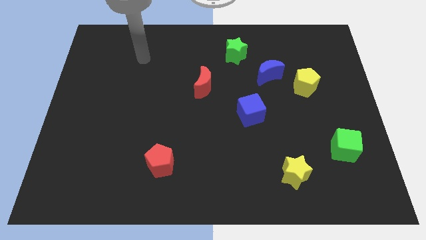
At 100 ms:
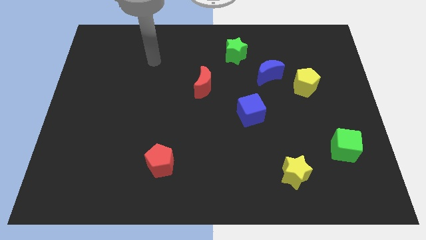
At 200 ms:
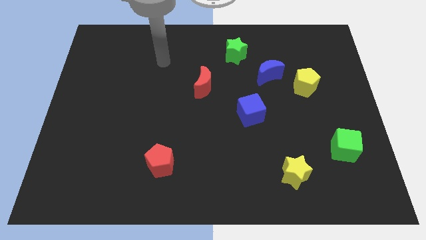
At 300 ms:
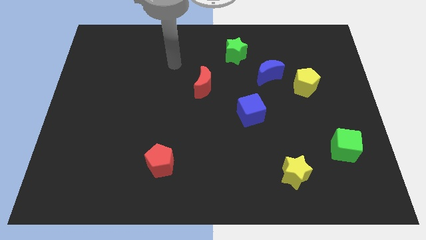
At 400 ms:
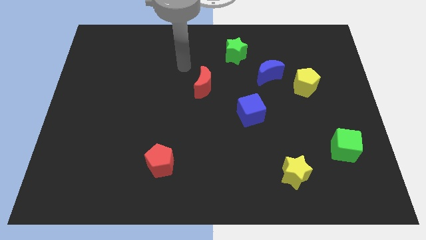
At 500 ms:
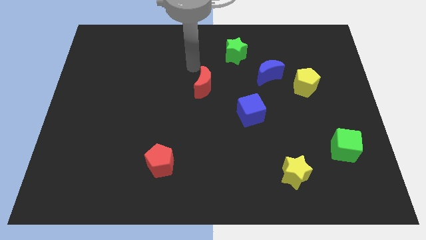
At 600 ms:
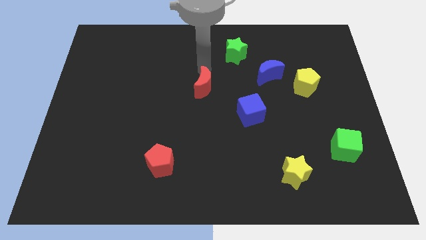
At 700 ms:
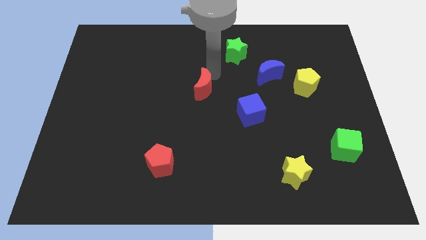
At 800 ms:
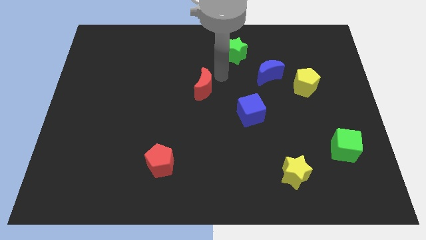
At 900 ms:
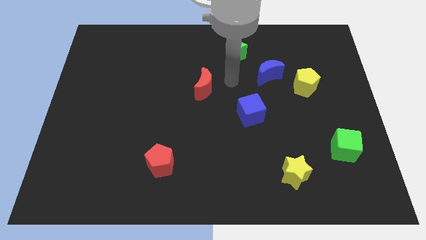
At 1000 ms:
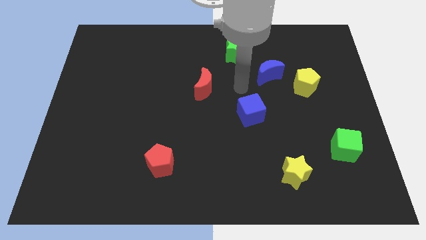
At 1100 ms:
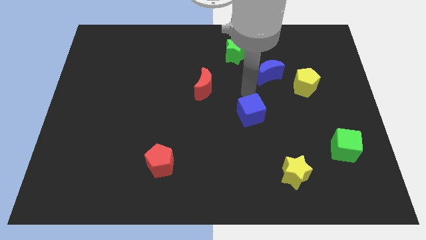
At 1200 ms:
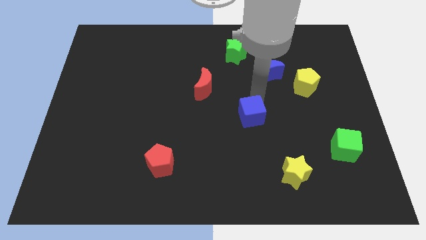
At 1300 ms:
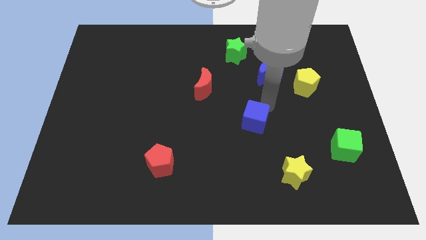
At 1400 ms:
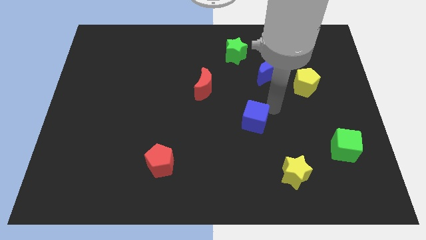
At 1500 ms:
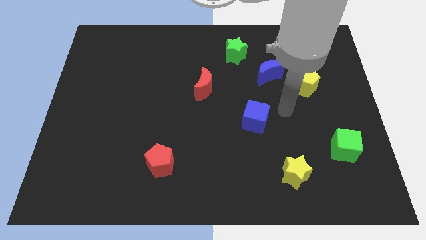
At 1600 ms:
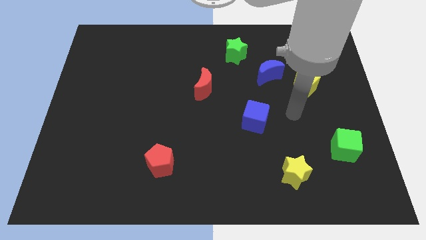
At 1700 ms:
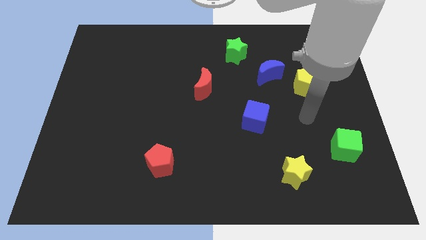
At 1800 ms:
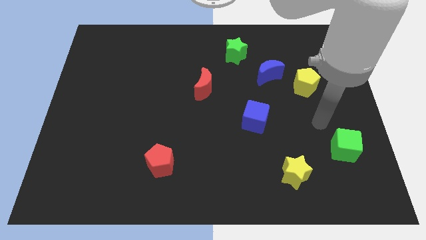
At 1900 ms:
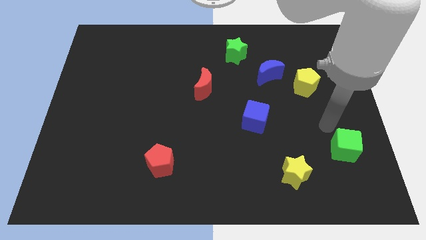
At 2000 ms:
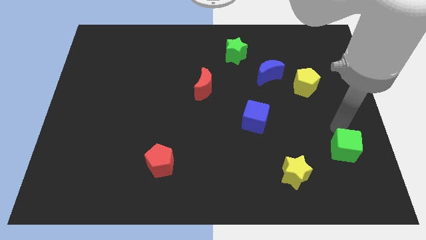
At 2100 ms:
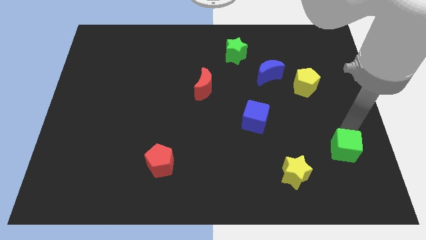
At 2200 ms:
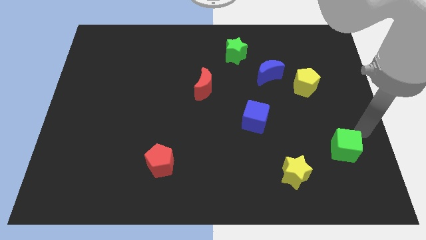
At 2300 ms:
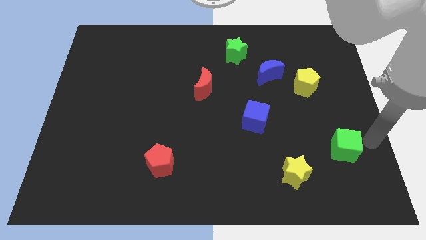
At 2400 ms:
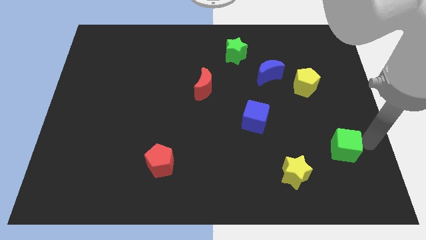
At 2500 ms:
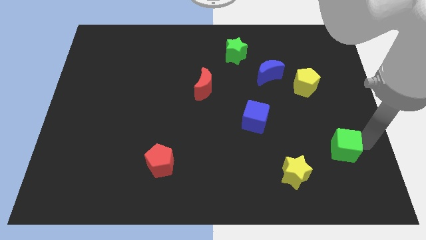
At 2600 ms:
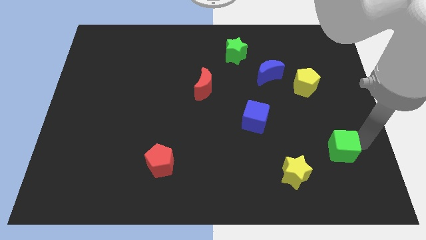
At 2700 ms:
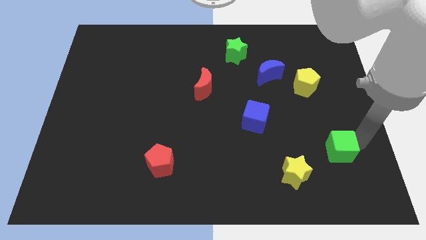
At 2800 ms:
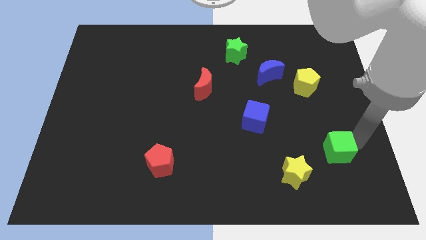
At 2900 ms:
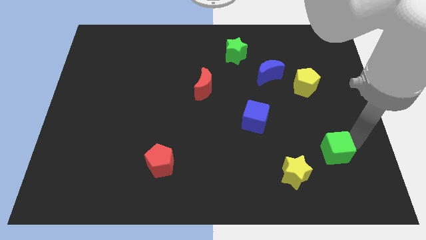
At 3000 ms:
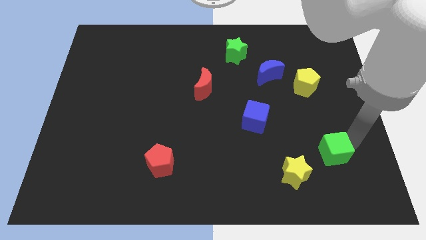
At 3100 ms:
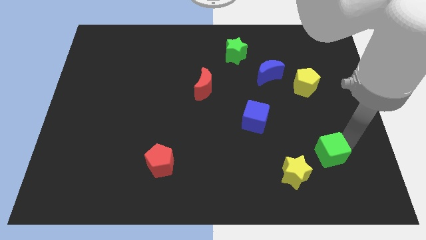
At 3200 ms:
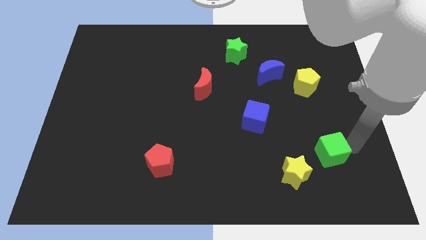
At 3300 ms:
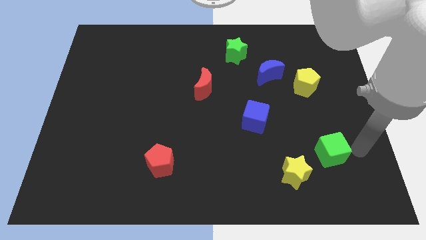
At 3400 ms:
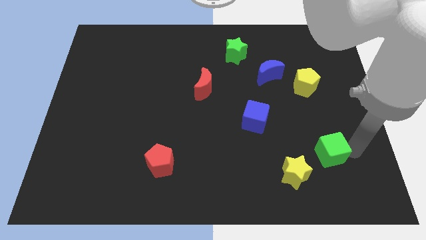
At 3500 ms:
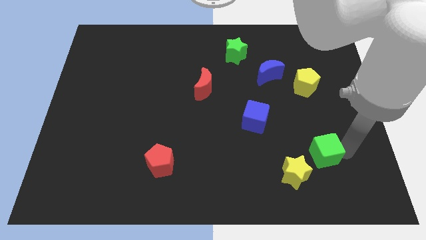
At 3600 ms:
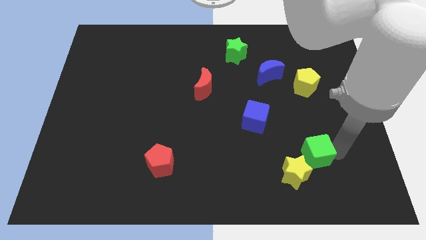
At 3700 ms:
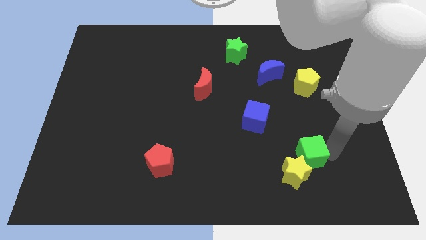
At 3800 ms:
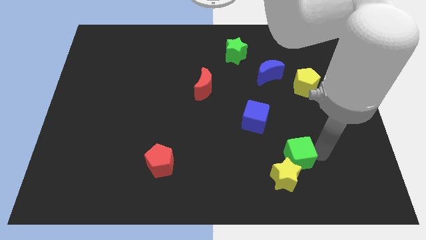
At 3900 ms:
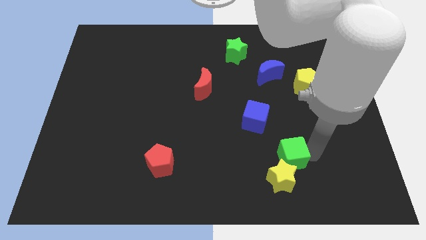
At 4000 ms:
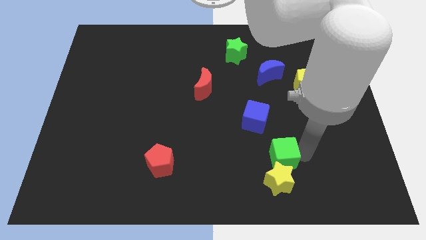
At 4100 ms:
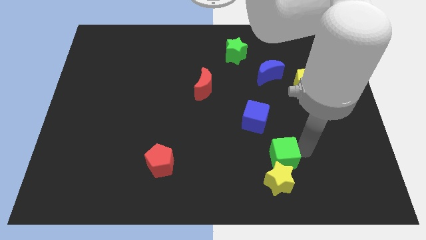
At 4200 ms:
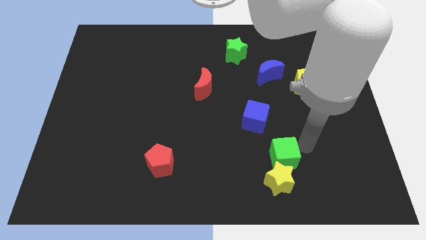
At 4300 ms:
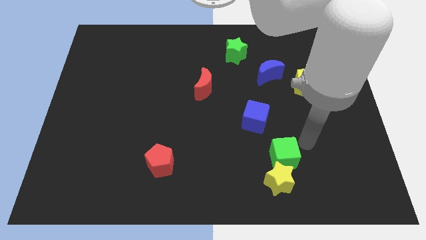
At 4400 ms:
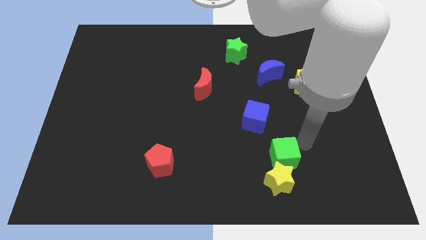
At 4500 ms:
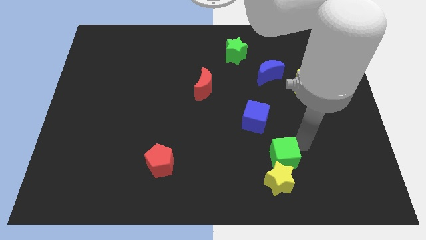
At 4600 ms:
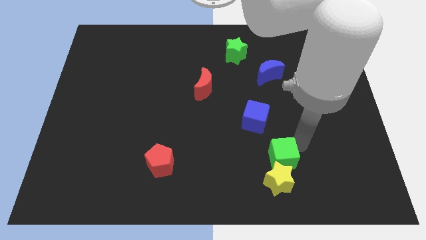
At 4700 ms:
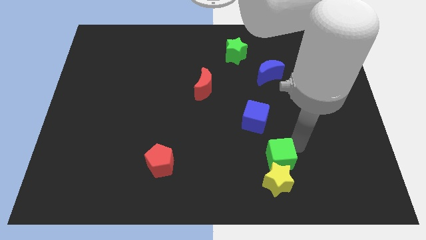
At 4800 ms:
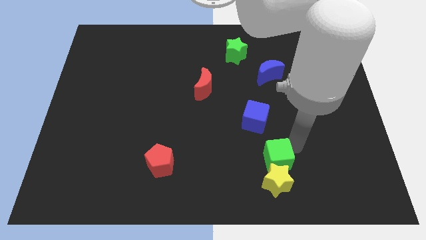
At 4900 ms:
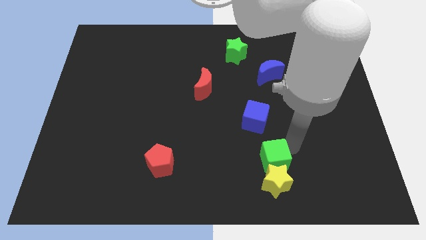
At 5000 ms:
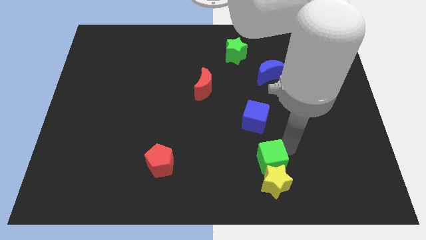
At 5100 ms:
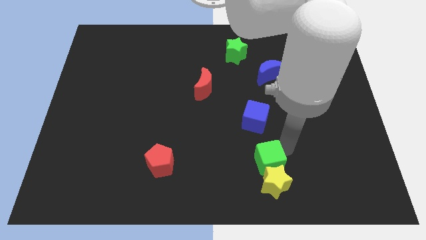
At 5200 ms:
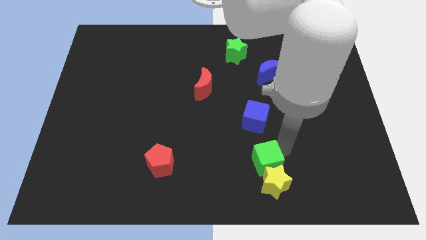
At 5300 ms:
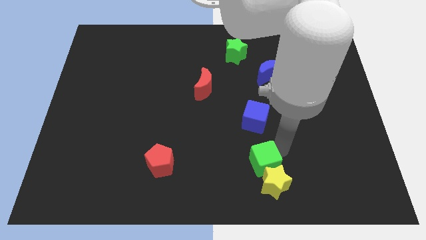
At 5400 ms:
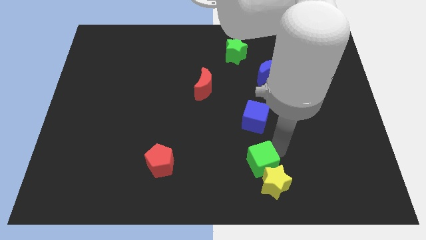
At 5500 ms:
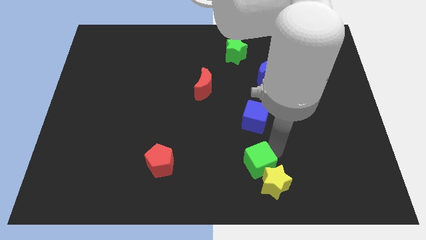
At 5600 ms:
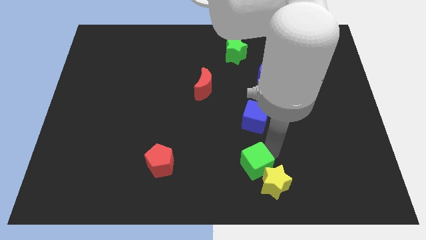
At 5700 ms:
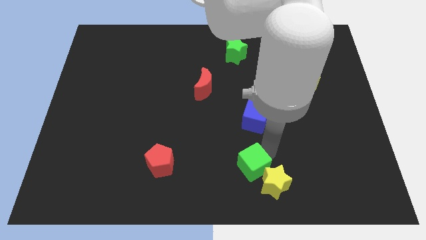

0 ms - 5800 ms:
push the green cube to the bottom

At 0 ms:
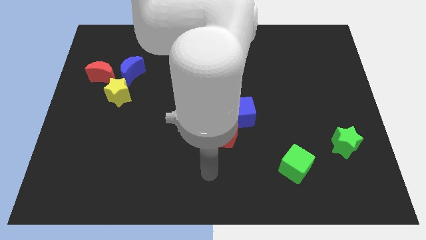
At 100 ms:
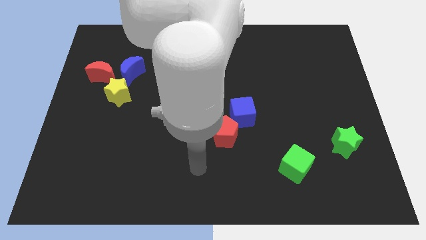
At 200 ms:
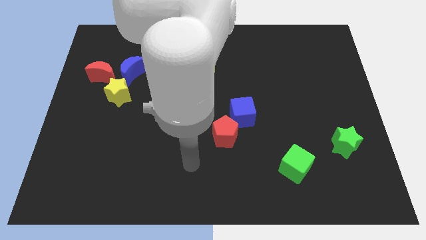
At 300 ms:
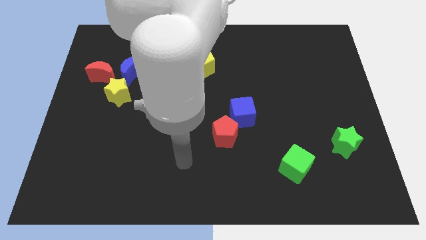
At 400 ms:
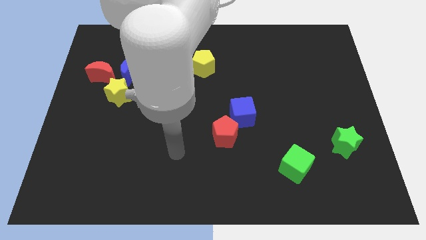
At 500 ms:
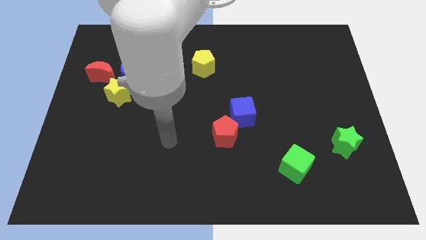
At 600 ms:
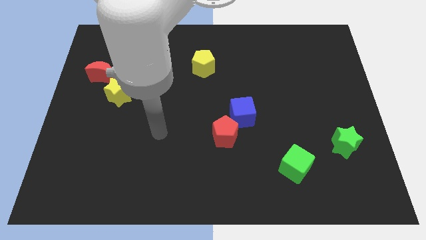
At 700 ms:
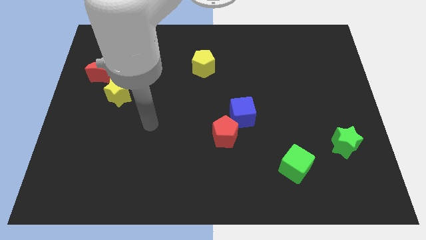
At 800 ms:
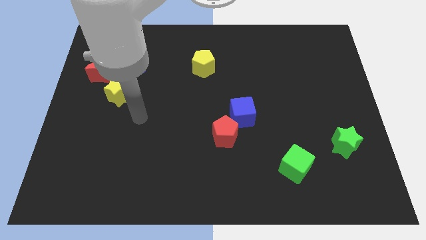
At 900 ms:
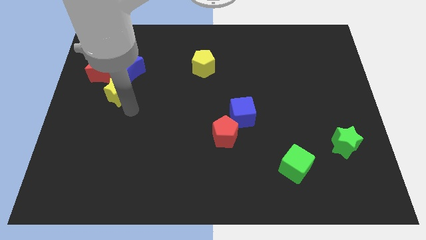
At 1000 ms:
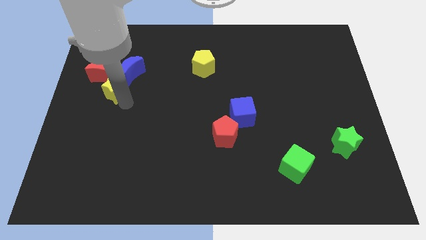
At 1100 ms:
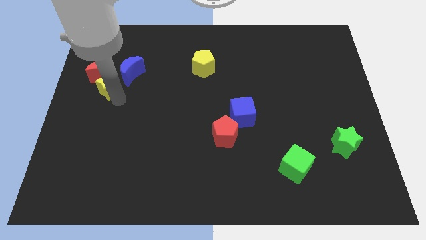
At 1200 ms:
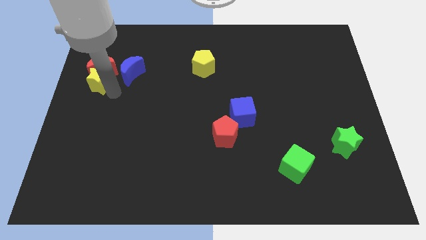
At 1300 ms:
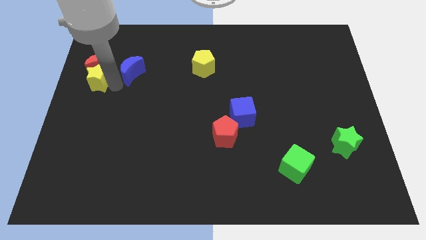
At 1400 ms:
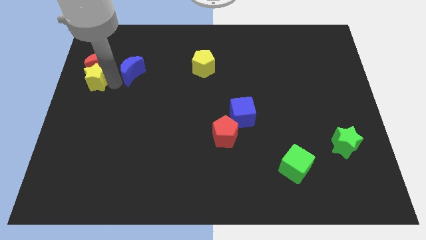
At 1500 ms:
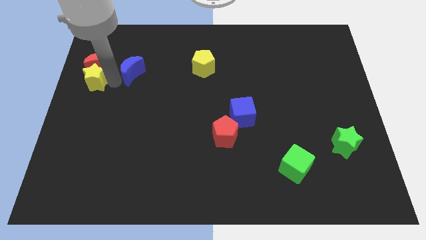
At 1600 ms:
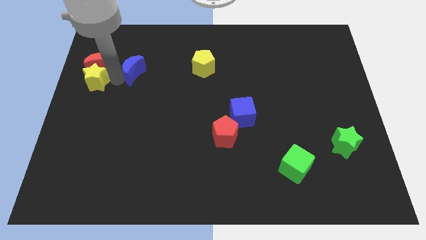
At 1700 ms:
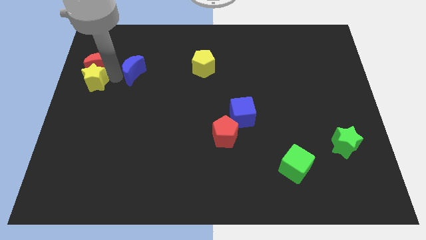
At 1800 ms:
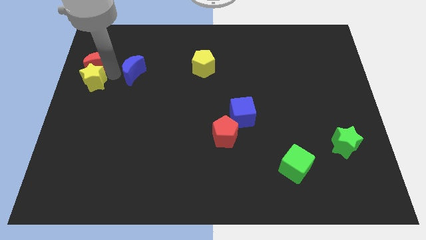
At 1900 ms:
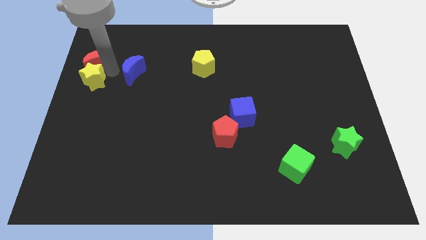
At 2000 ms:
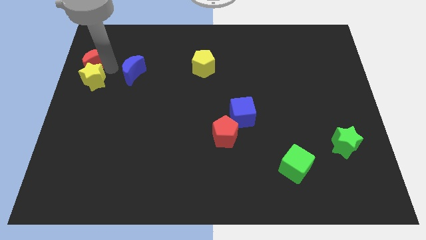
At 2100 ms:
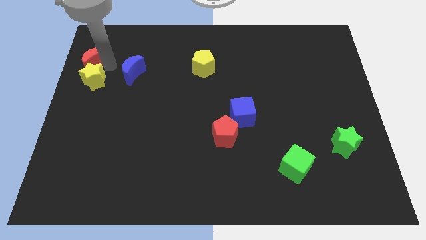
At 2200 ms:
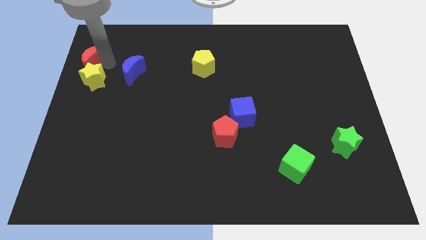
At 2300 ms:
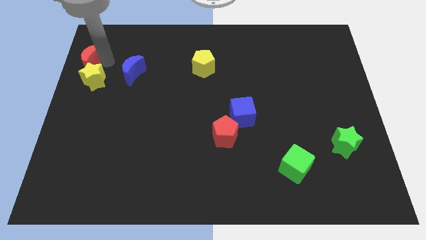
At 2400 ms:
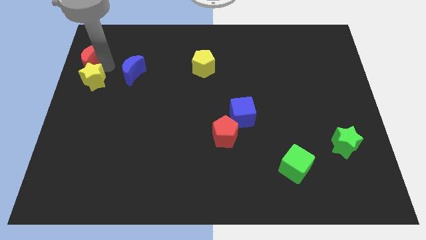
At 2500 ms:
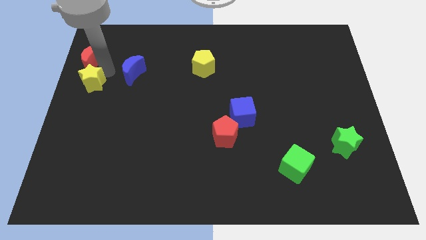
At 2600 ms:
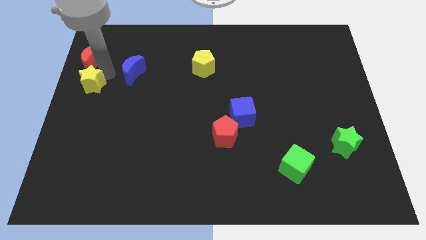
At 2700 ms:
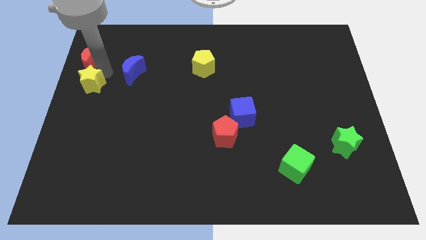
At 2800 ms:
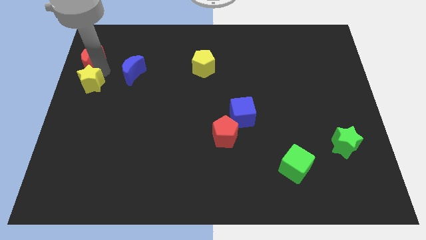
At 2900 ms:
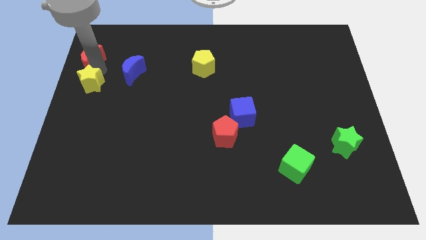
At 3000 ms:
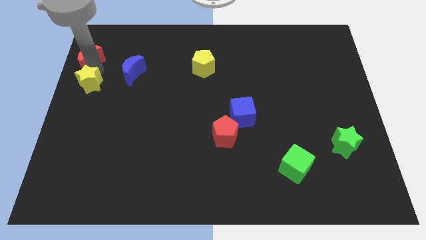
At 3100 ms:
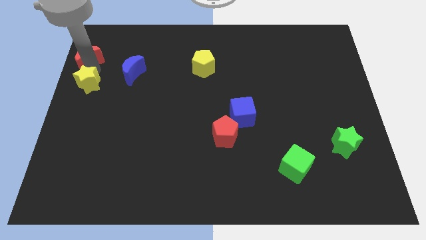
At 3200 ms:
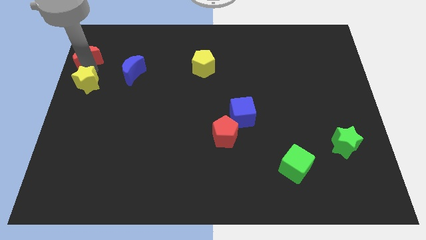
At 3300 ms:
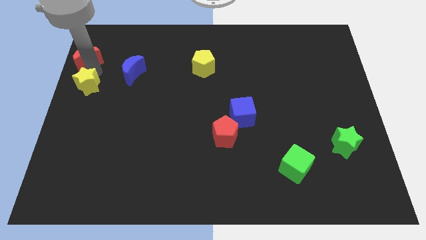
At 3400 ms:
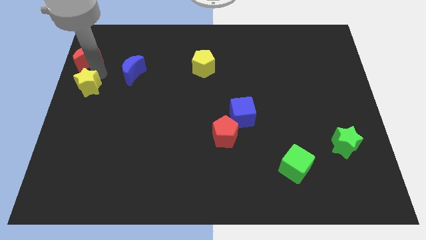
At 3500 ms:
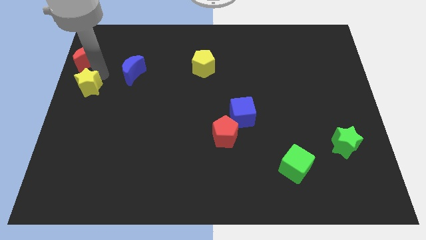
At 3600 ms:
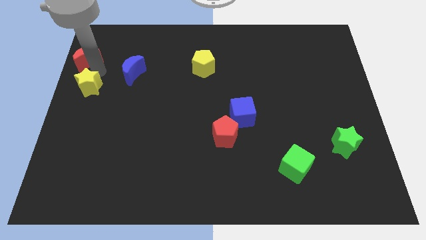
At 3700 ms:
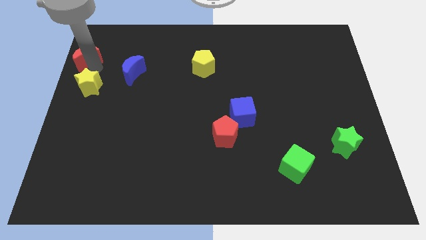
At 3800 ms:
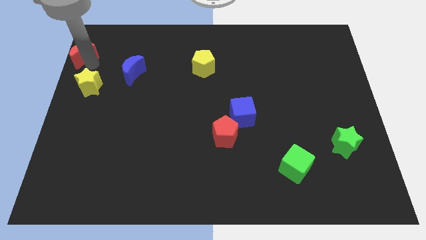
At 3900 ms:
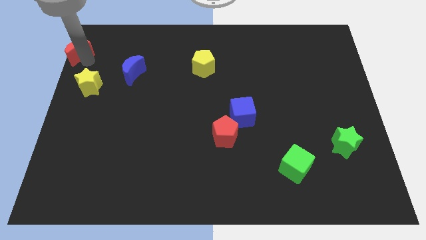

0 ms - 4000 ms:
move the red moon to the top left
